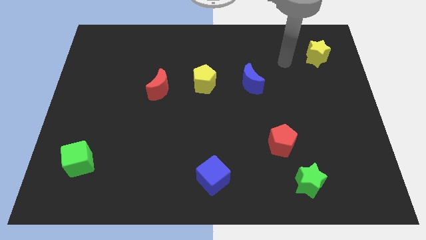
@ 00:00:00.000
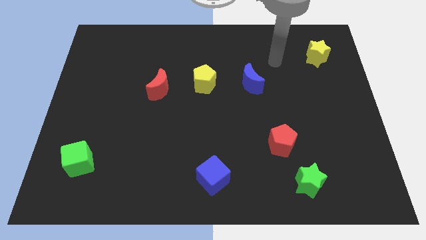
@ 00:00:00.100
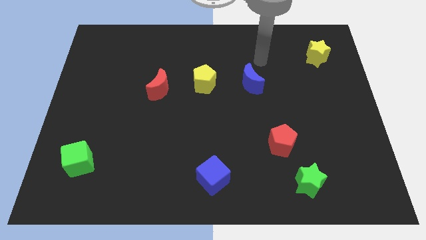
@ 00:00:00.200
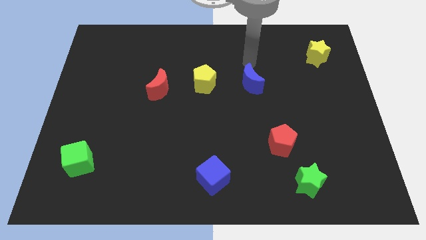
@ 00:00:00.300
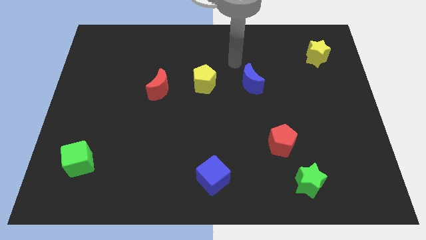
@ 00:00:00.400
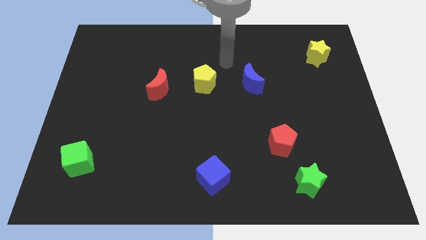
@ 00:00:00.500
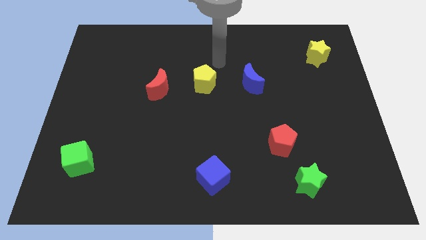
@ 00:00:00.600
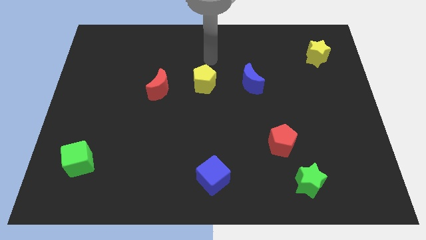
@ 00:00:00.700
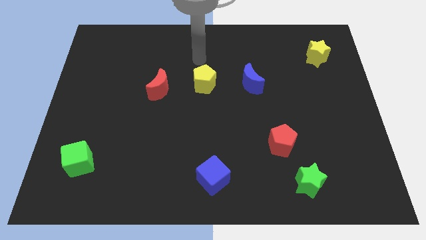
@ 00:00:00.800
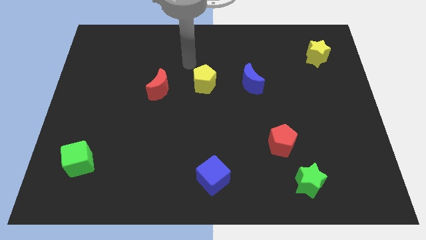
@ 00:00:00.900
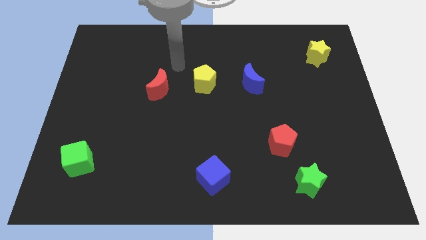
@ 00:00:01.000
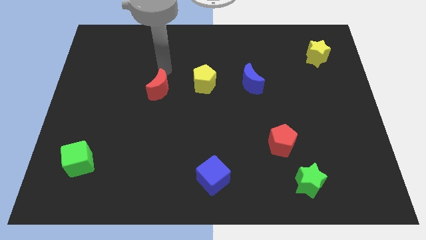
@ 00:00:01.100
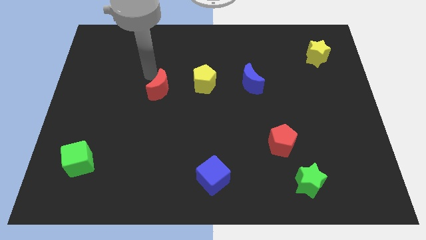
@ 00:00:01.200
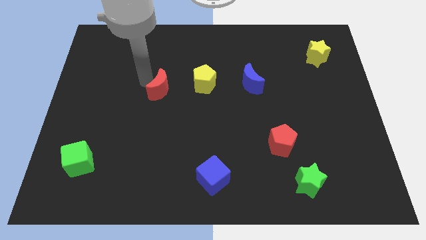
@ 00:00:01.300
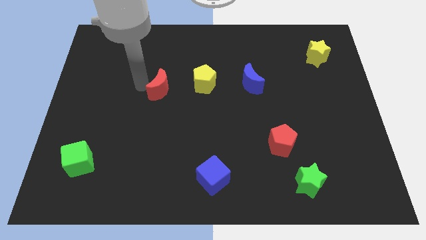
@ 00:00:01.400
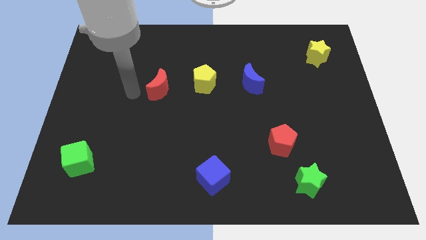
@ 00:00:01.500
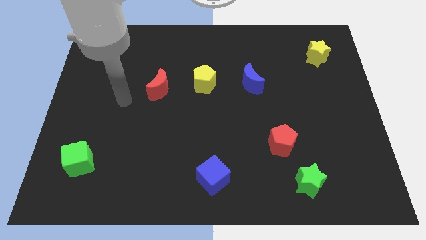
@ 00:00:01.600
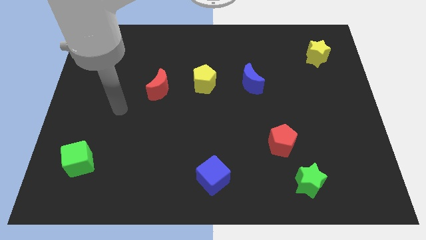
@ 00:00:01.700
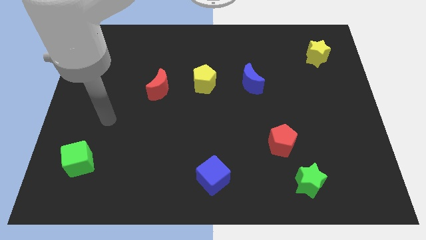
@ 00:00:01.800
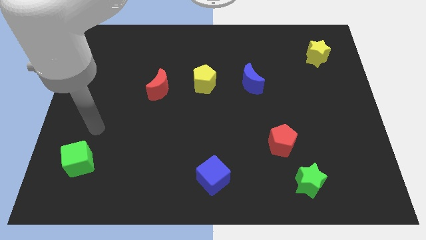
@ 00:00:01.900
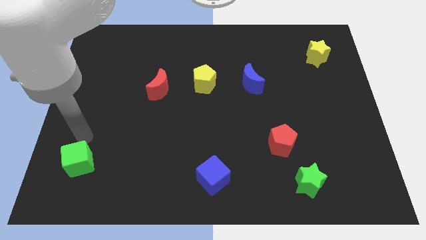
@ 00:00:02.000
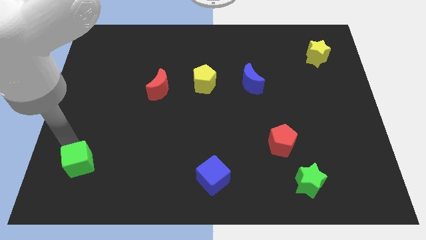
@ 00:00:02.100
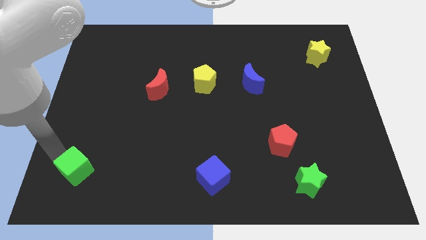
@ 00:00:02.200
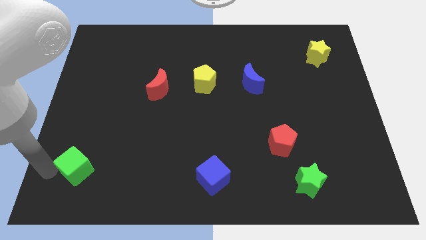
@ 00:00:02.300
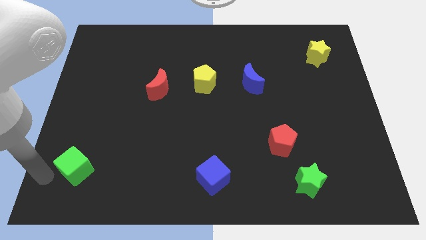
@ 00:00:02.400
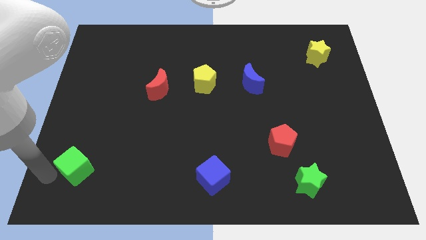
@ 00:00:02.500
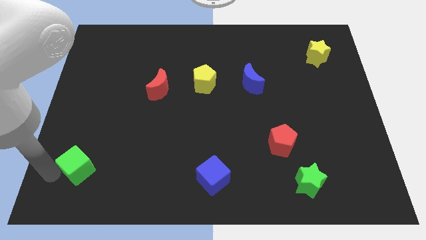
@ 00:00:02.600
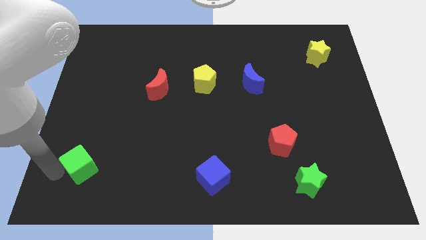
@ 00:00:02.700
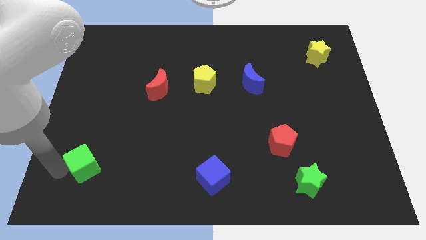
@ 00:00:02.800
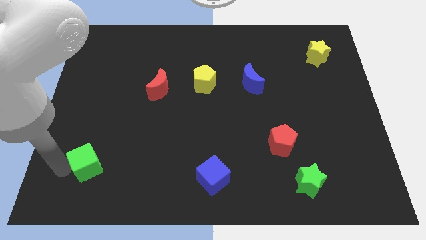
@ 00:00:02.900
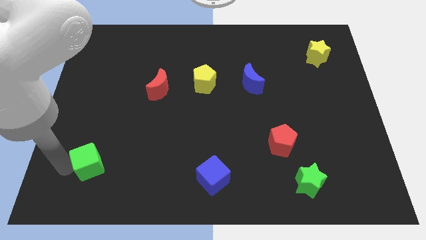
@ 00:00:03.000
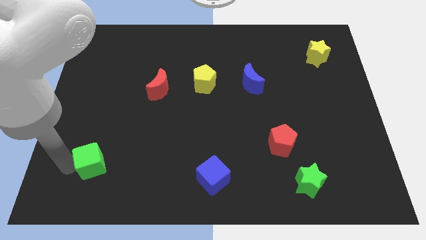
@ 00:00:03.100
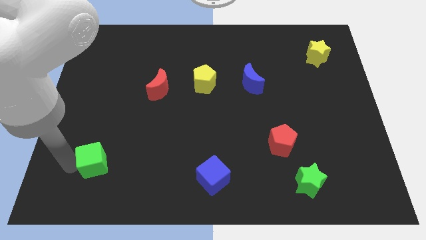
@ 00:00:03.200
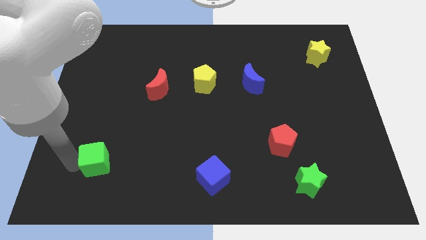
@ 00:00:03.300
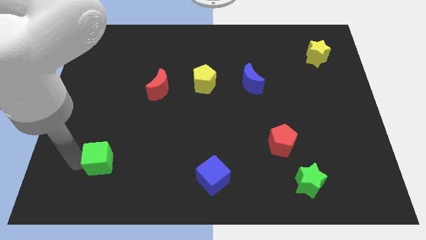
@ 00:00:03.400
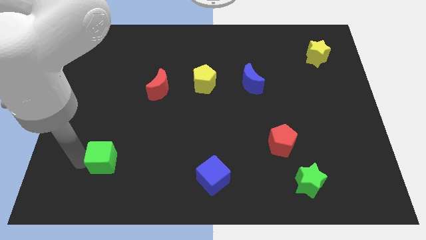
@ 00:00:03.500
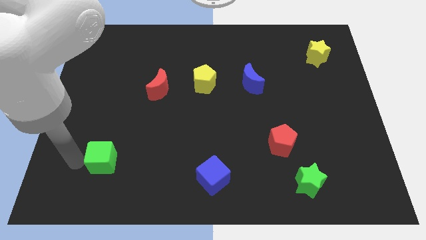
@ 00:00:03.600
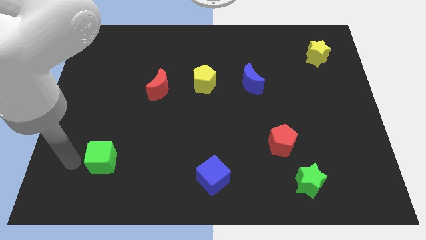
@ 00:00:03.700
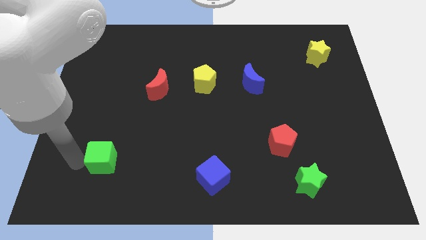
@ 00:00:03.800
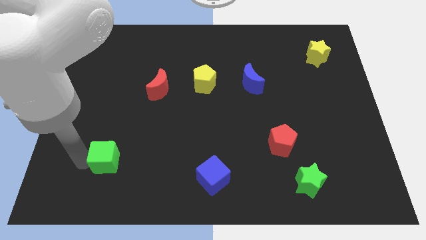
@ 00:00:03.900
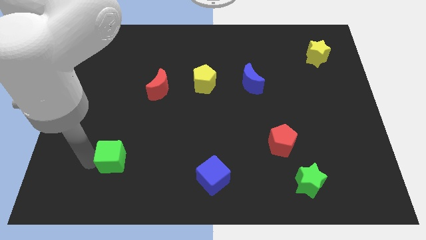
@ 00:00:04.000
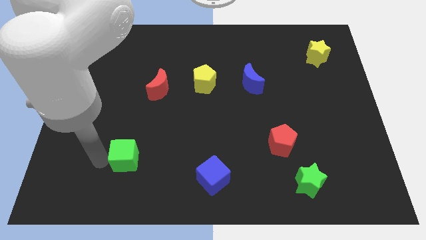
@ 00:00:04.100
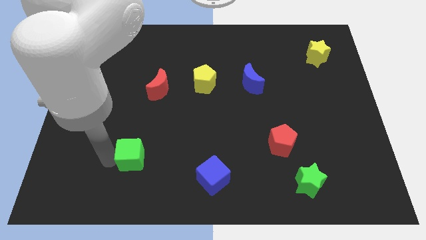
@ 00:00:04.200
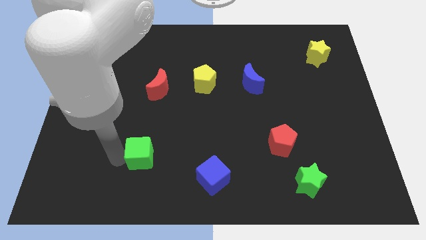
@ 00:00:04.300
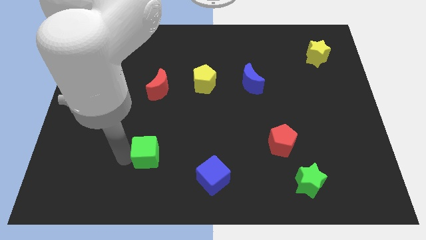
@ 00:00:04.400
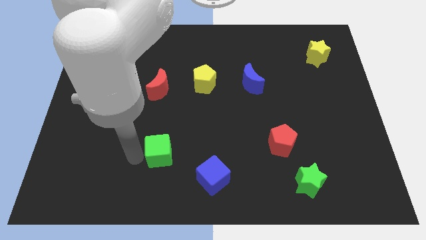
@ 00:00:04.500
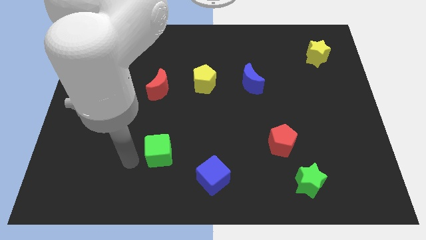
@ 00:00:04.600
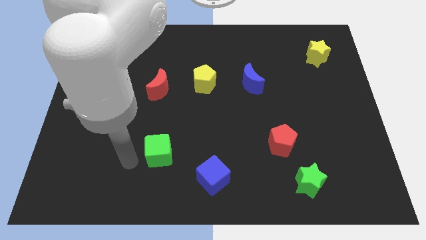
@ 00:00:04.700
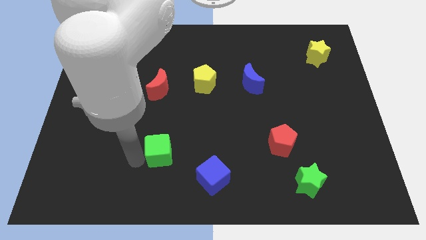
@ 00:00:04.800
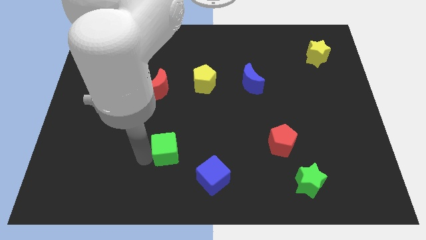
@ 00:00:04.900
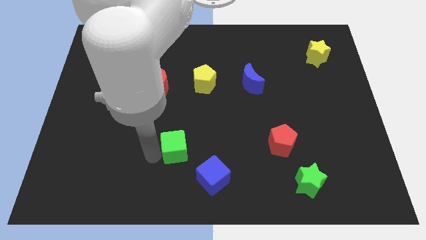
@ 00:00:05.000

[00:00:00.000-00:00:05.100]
move the green cube to the right

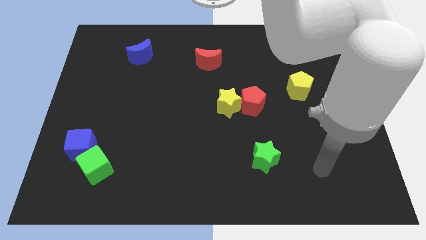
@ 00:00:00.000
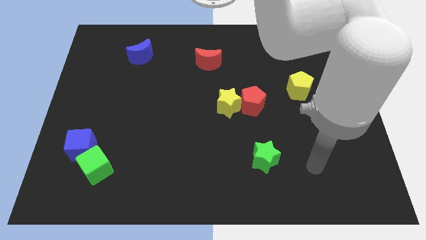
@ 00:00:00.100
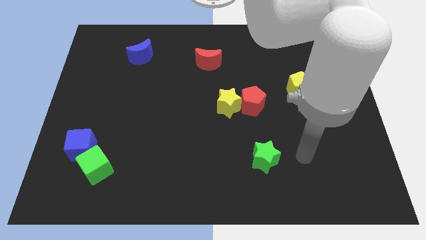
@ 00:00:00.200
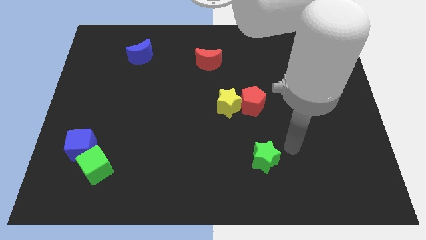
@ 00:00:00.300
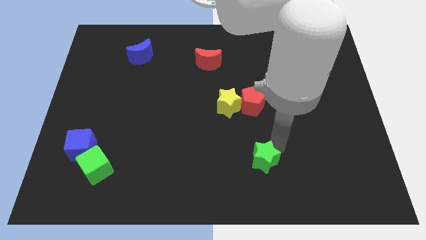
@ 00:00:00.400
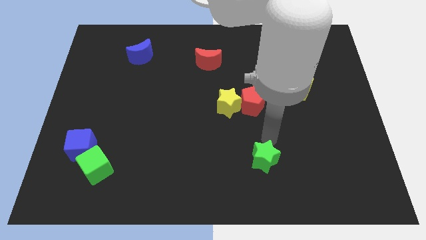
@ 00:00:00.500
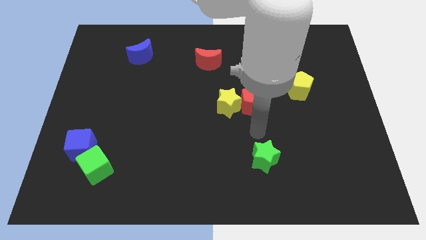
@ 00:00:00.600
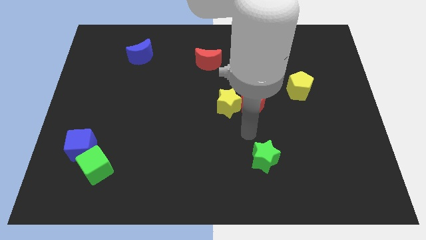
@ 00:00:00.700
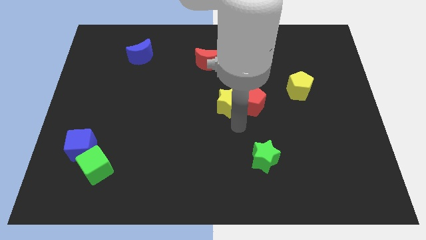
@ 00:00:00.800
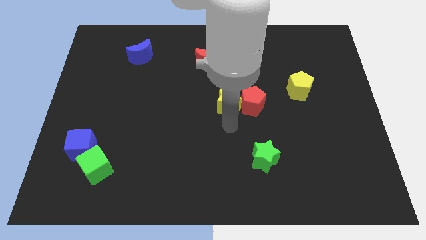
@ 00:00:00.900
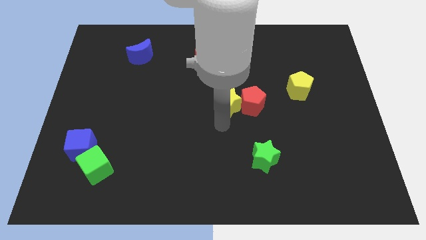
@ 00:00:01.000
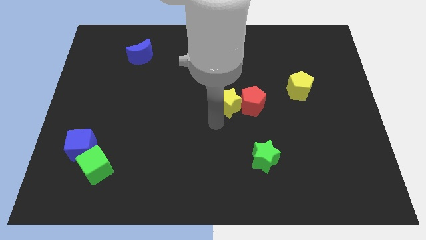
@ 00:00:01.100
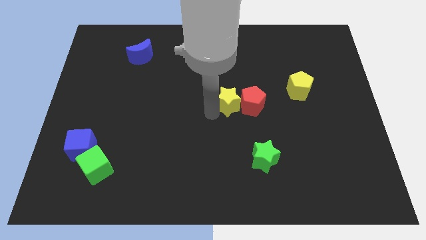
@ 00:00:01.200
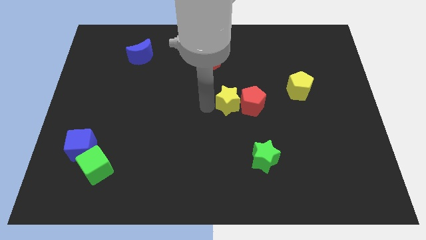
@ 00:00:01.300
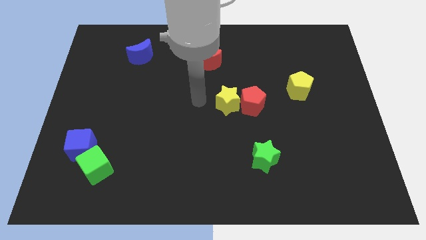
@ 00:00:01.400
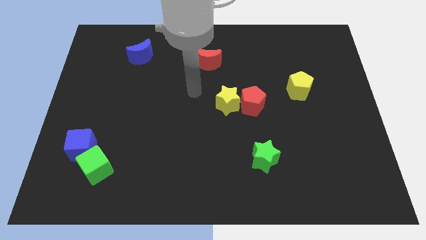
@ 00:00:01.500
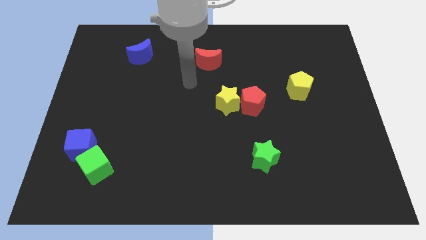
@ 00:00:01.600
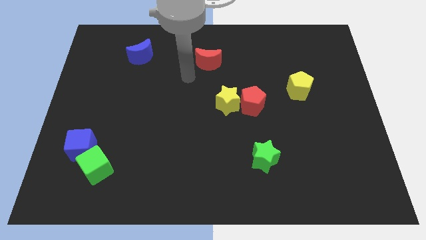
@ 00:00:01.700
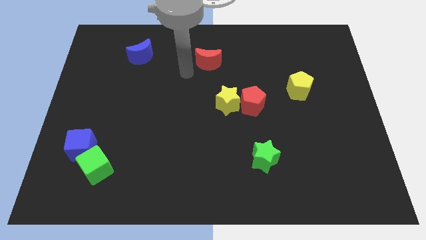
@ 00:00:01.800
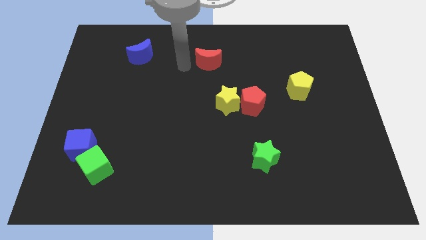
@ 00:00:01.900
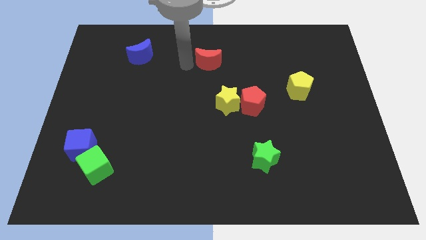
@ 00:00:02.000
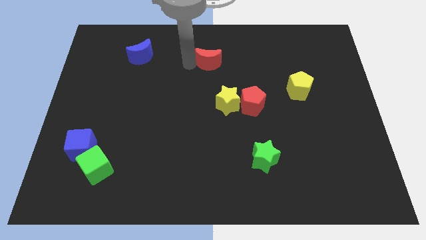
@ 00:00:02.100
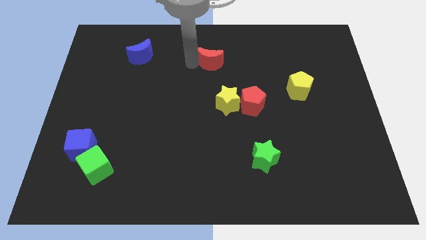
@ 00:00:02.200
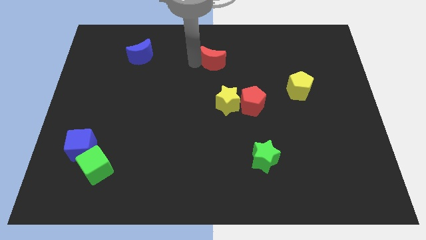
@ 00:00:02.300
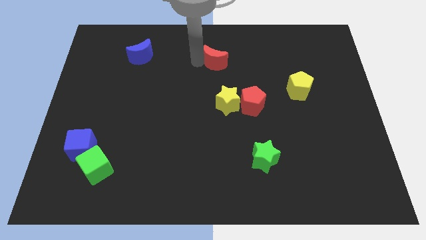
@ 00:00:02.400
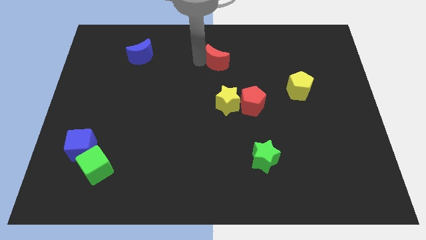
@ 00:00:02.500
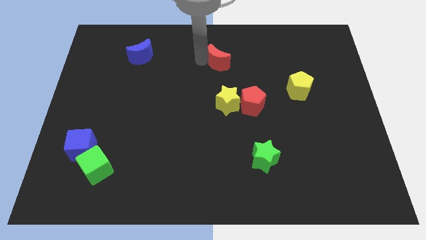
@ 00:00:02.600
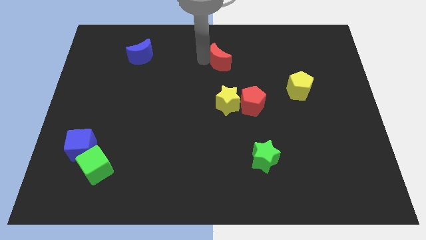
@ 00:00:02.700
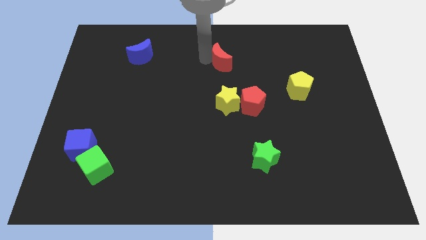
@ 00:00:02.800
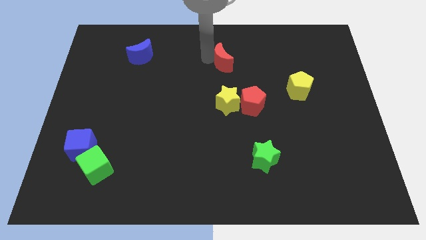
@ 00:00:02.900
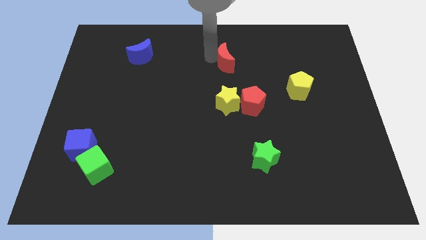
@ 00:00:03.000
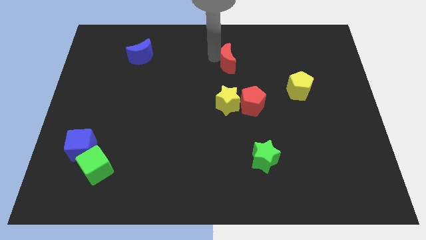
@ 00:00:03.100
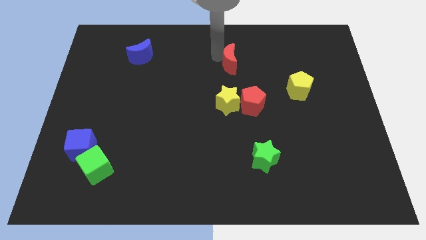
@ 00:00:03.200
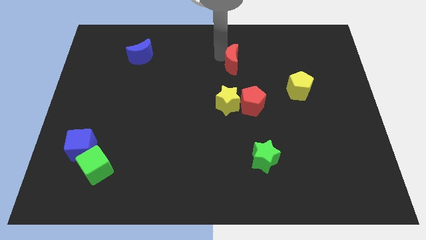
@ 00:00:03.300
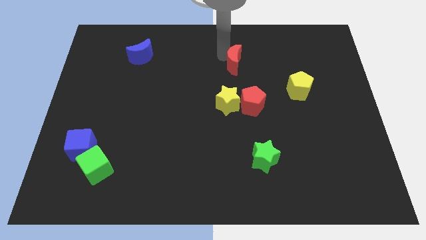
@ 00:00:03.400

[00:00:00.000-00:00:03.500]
slightly move the red moon to the right
